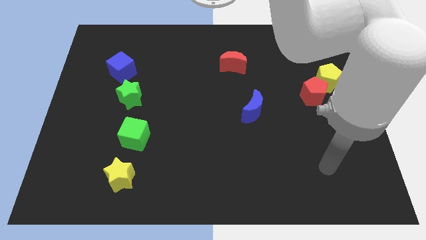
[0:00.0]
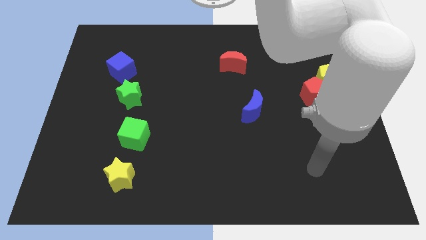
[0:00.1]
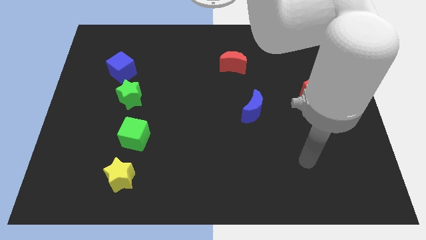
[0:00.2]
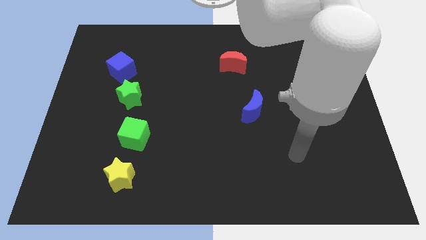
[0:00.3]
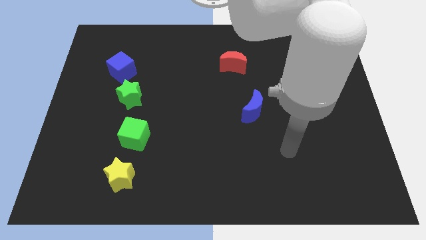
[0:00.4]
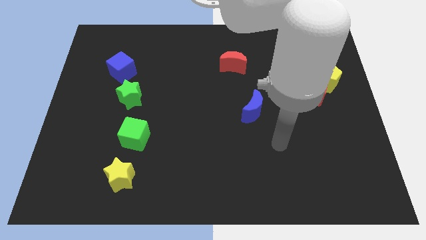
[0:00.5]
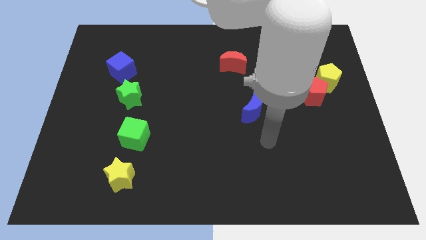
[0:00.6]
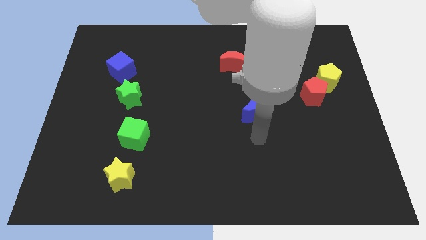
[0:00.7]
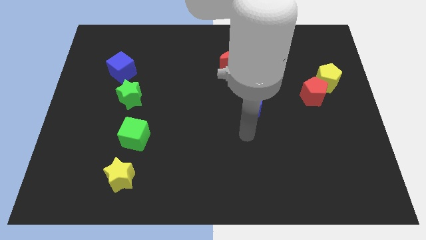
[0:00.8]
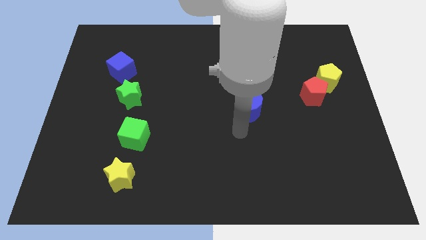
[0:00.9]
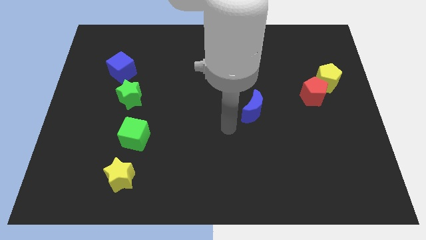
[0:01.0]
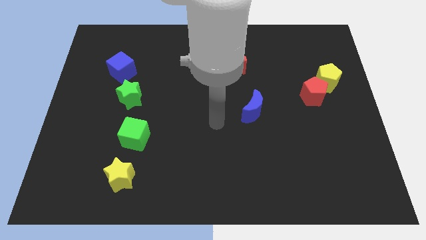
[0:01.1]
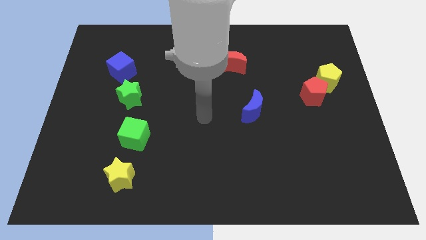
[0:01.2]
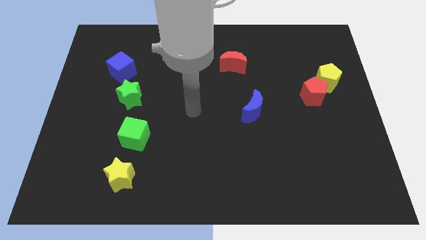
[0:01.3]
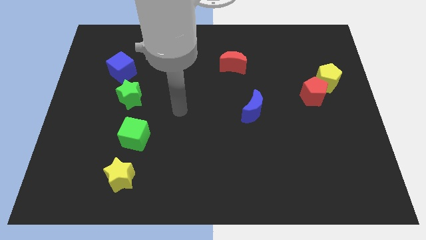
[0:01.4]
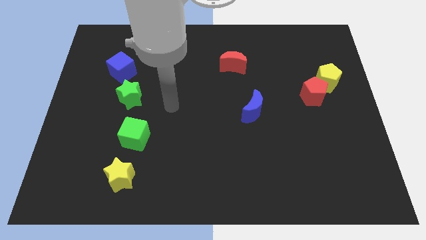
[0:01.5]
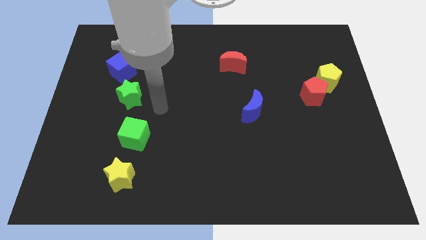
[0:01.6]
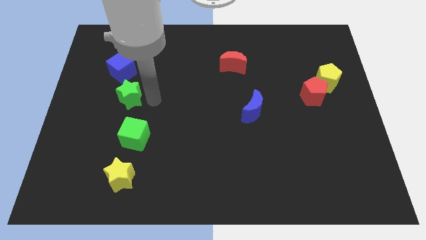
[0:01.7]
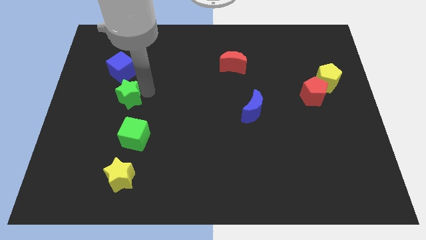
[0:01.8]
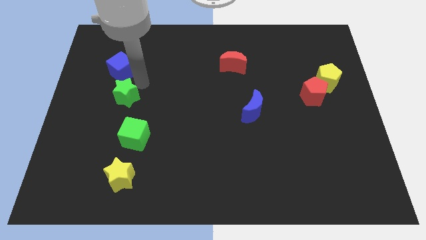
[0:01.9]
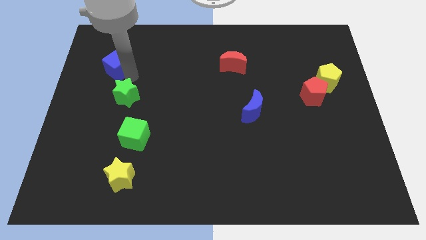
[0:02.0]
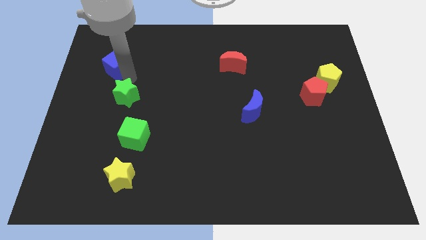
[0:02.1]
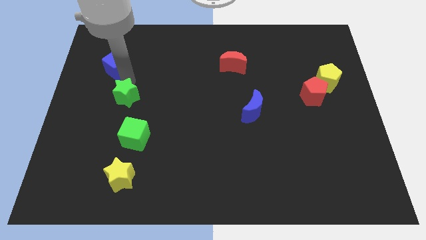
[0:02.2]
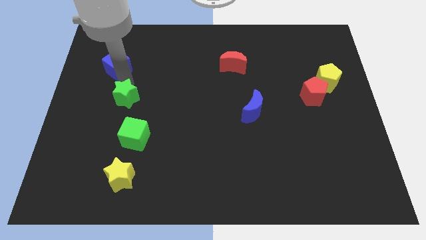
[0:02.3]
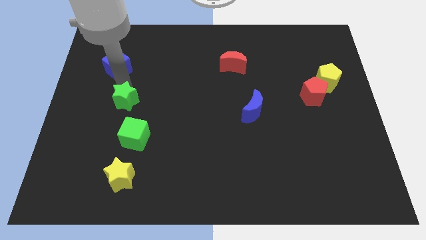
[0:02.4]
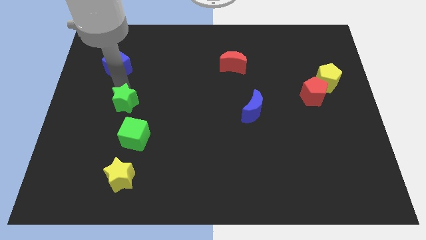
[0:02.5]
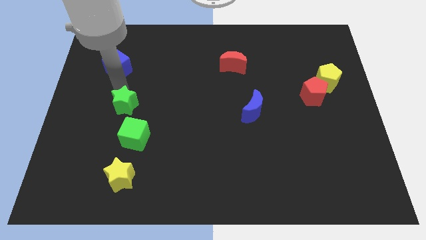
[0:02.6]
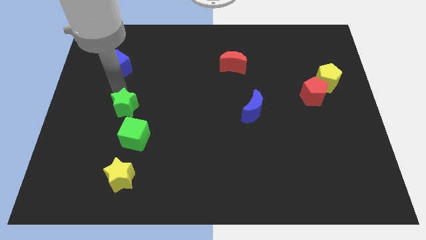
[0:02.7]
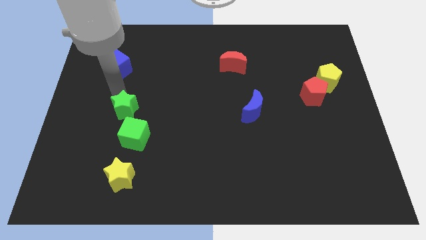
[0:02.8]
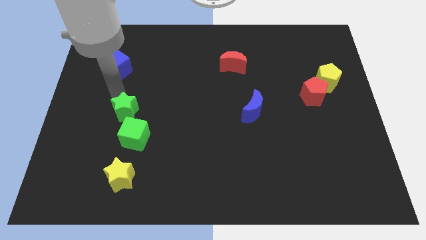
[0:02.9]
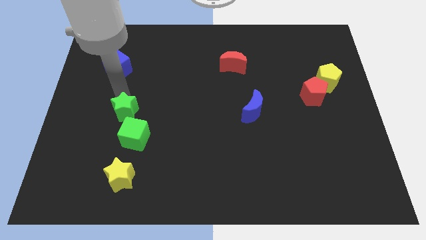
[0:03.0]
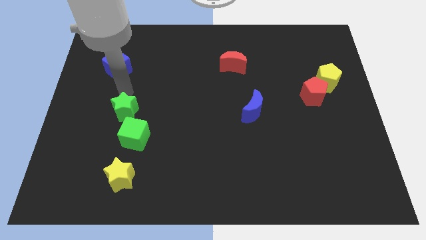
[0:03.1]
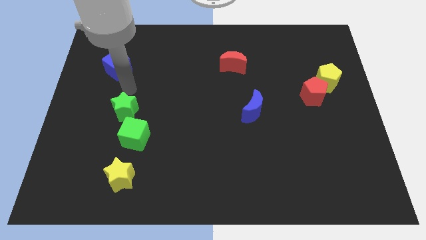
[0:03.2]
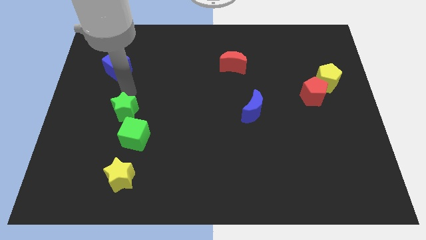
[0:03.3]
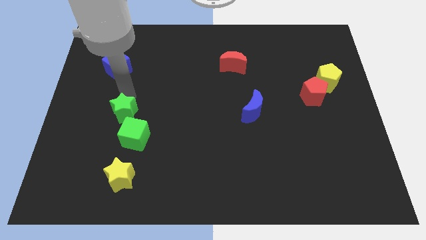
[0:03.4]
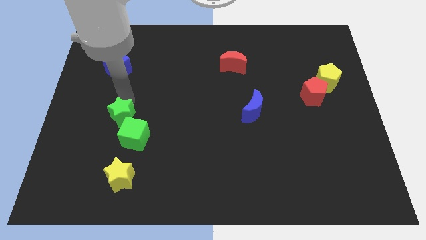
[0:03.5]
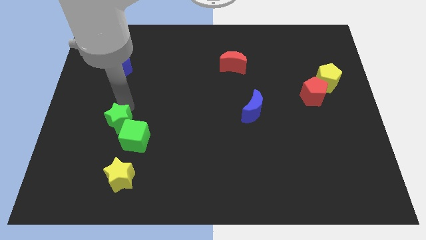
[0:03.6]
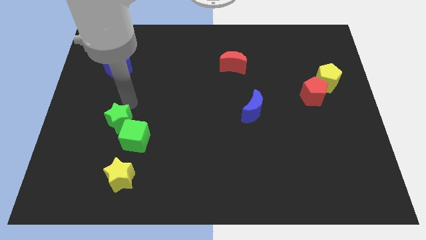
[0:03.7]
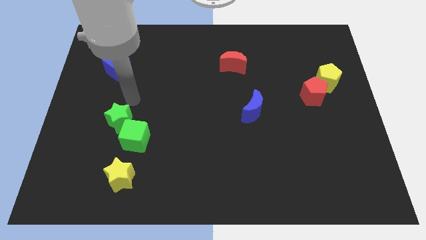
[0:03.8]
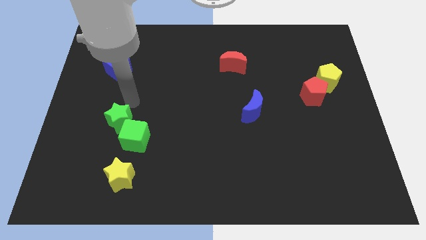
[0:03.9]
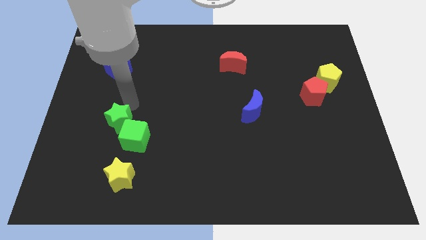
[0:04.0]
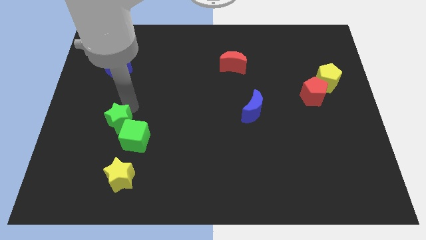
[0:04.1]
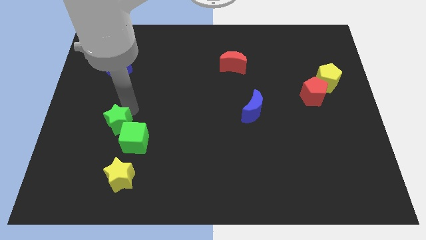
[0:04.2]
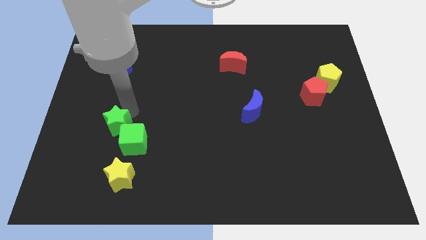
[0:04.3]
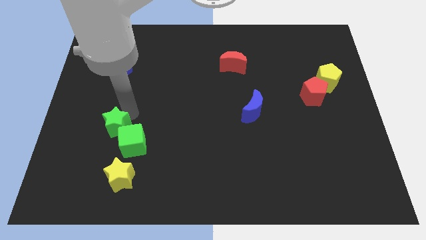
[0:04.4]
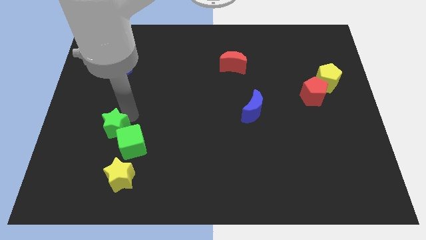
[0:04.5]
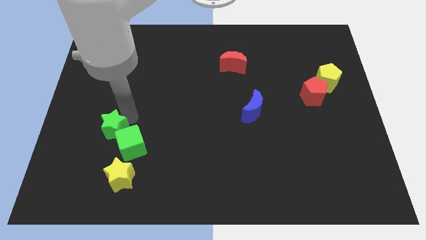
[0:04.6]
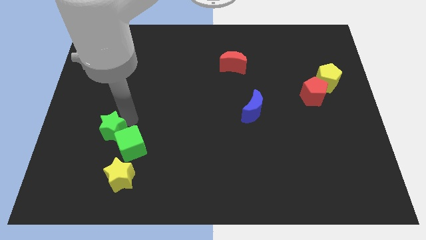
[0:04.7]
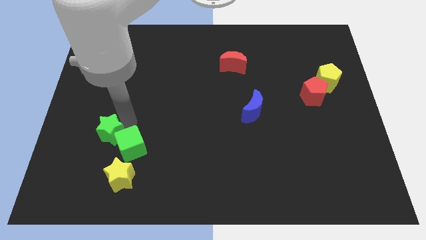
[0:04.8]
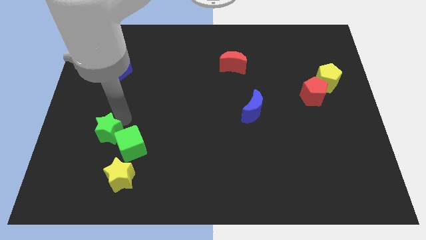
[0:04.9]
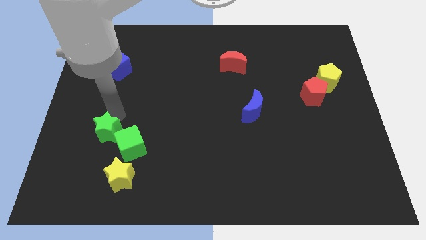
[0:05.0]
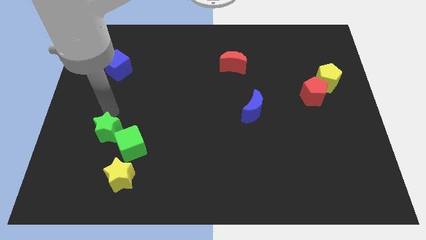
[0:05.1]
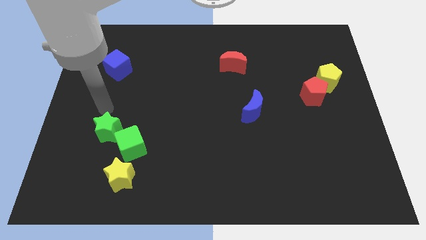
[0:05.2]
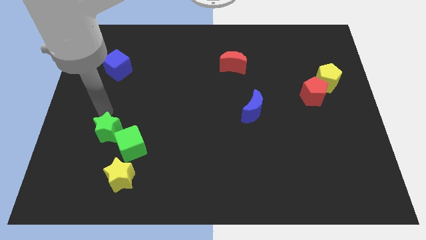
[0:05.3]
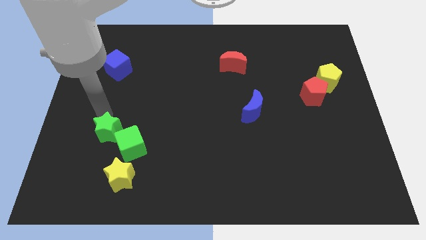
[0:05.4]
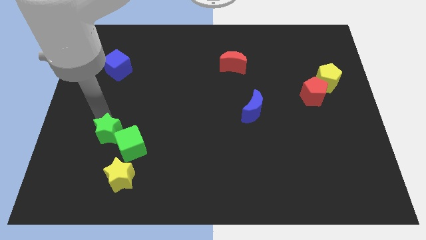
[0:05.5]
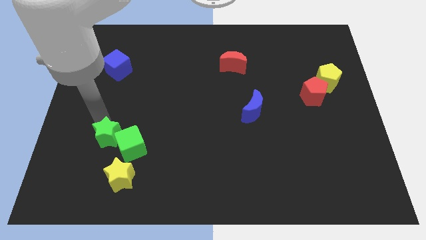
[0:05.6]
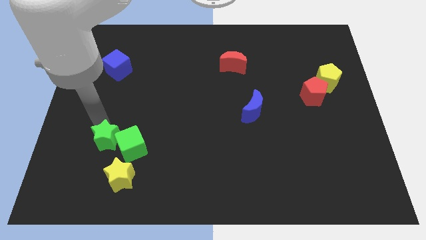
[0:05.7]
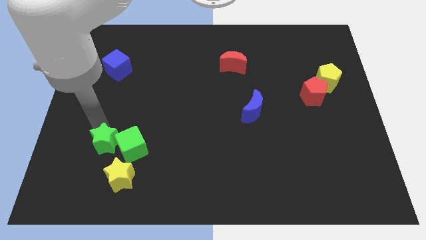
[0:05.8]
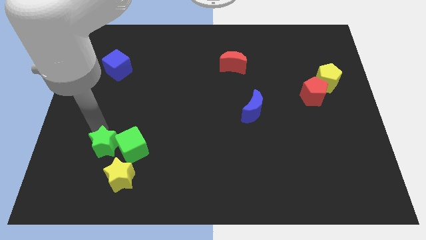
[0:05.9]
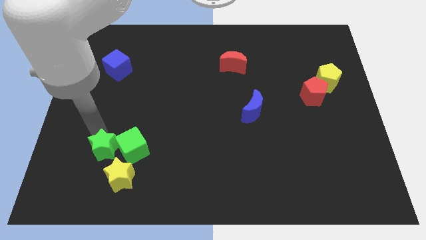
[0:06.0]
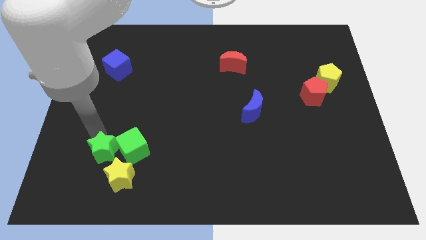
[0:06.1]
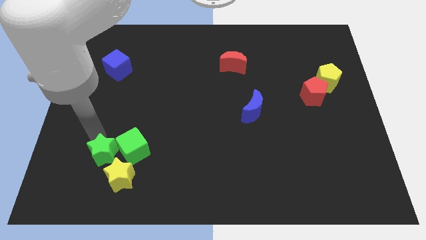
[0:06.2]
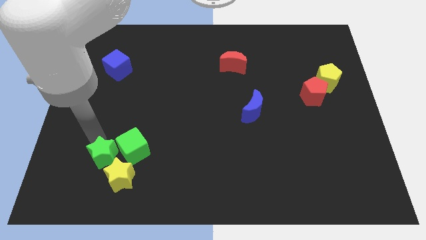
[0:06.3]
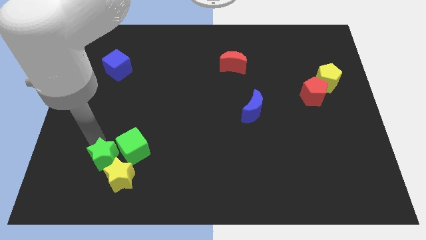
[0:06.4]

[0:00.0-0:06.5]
move the green star close to the yellow star

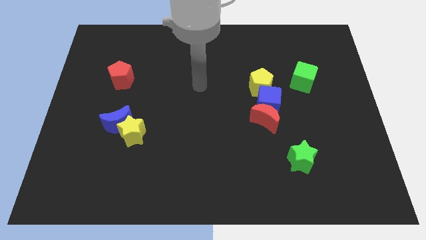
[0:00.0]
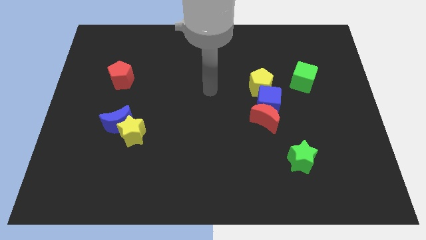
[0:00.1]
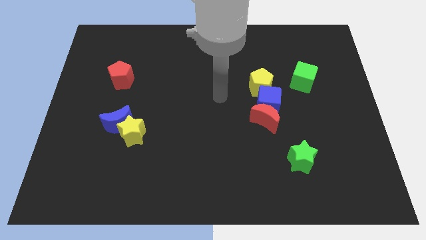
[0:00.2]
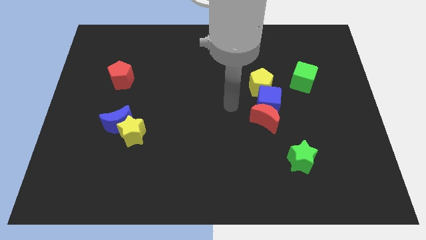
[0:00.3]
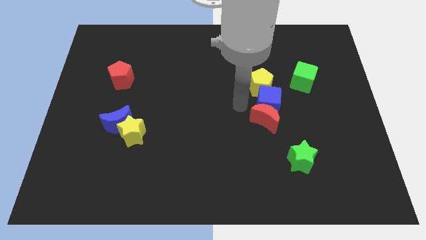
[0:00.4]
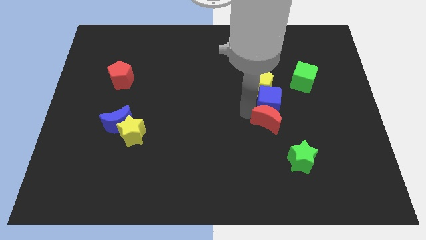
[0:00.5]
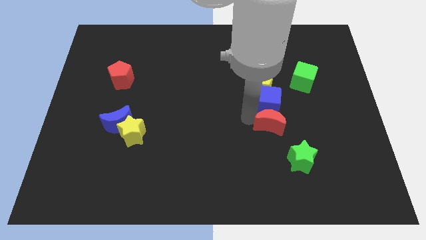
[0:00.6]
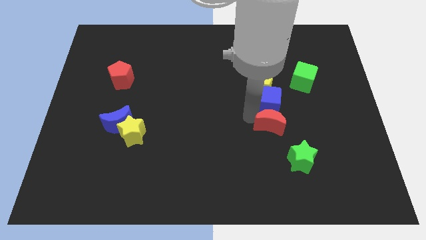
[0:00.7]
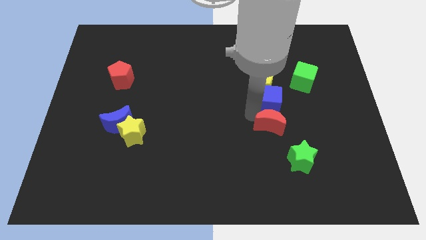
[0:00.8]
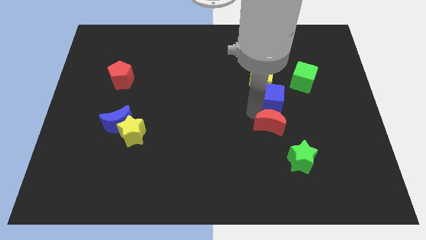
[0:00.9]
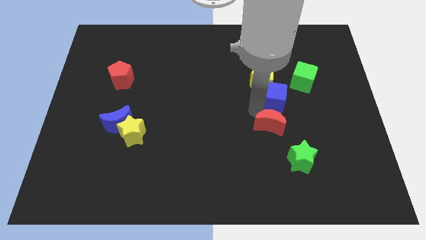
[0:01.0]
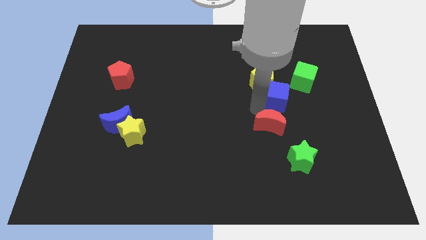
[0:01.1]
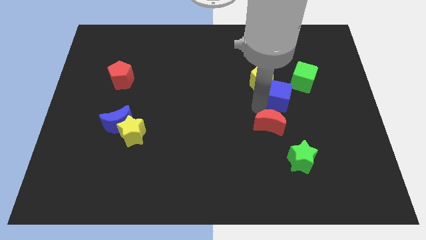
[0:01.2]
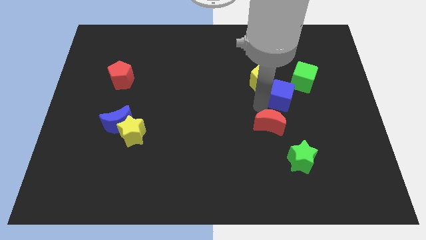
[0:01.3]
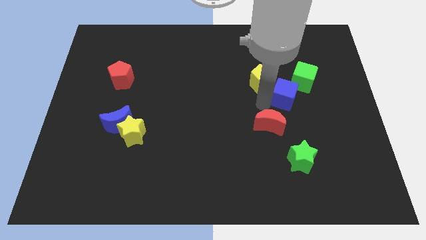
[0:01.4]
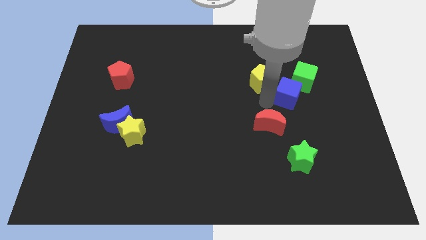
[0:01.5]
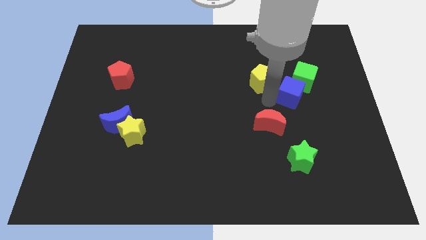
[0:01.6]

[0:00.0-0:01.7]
push the blue cube towards the green cube
